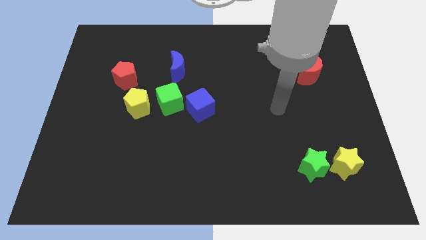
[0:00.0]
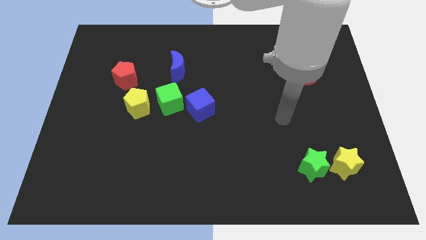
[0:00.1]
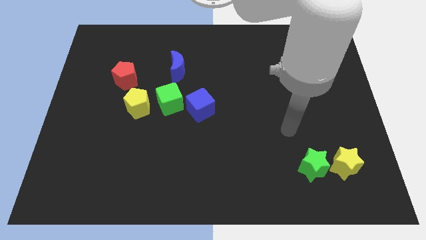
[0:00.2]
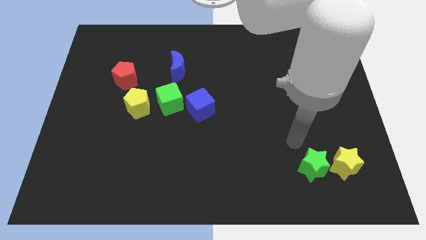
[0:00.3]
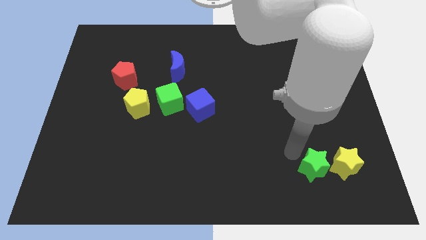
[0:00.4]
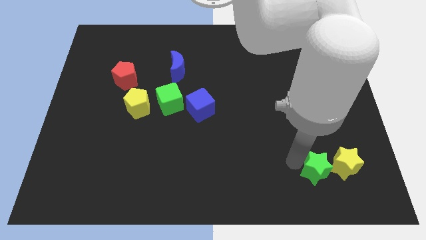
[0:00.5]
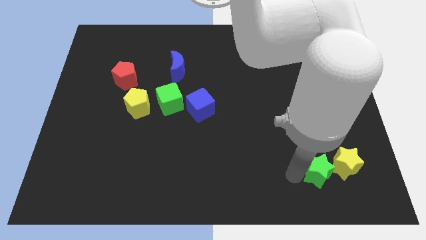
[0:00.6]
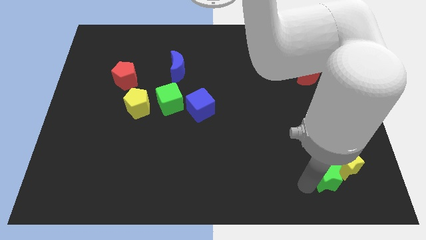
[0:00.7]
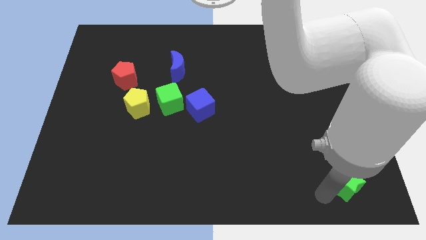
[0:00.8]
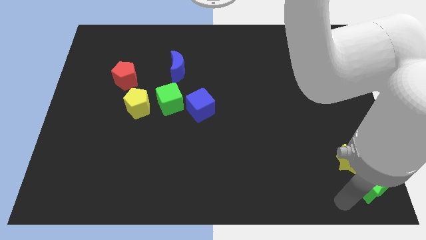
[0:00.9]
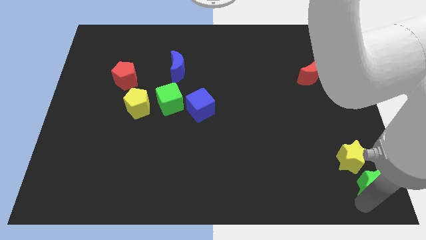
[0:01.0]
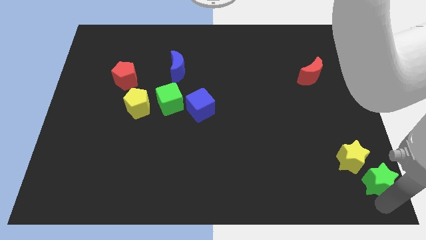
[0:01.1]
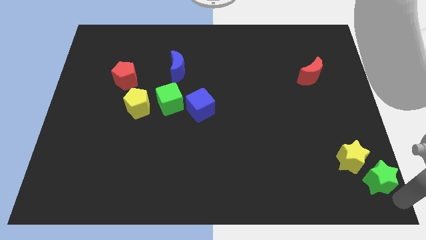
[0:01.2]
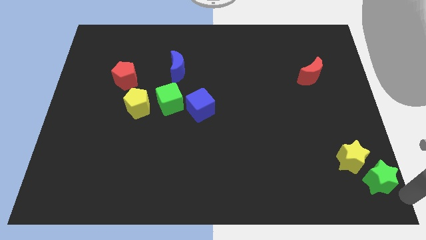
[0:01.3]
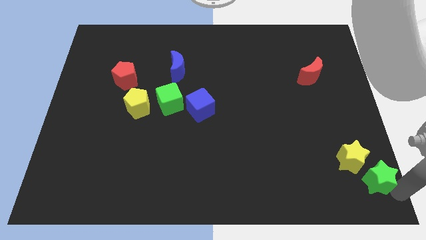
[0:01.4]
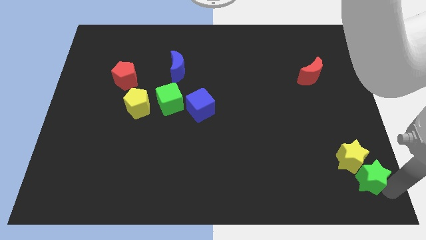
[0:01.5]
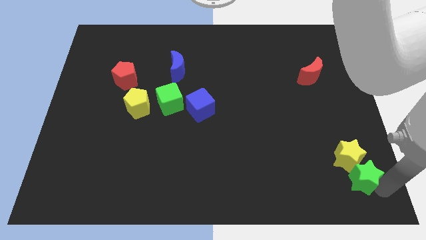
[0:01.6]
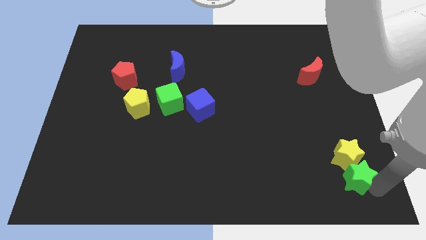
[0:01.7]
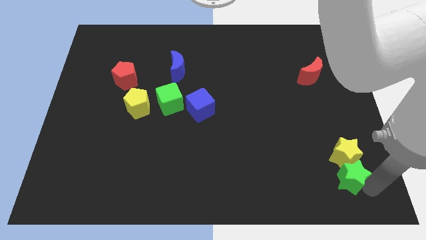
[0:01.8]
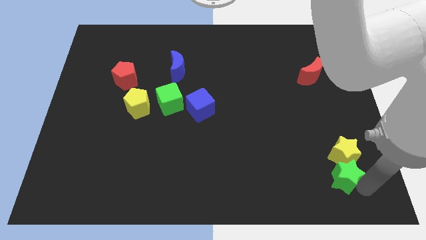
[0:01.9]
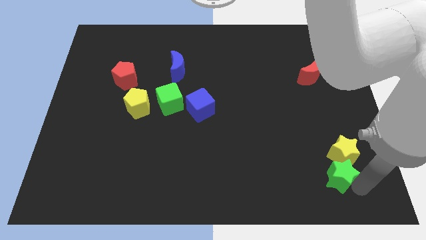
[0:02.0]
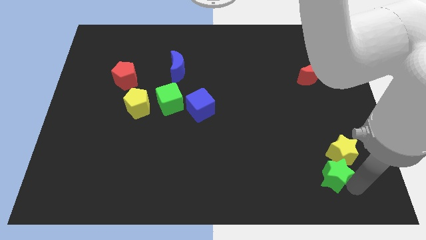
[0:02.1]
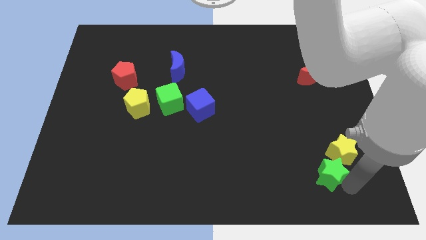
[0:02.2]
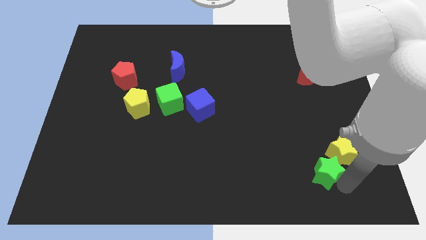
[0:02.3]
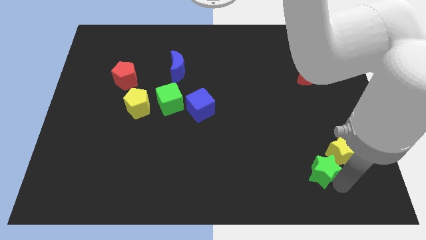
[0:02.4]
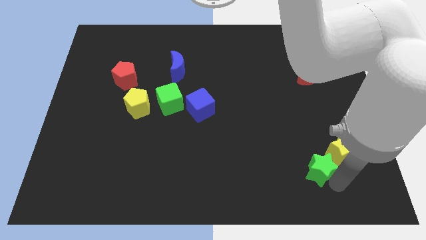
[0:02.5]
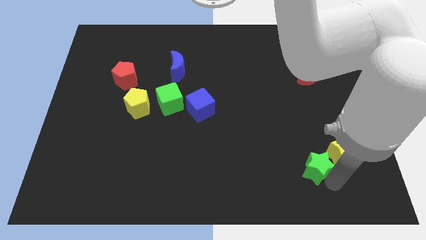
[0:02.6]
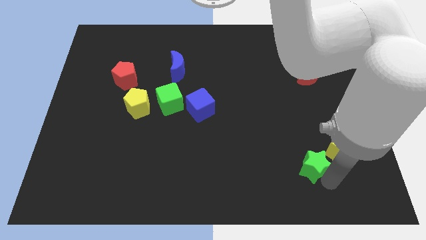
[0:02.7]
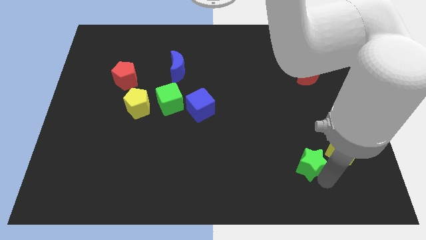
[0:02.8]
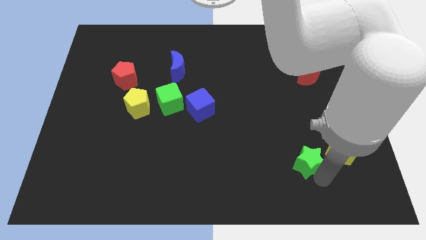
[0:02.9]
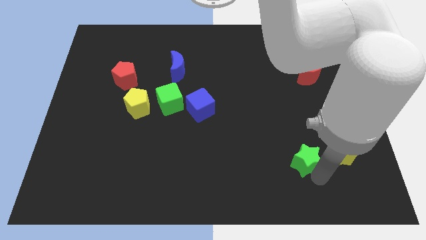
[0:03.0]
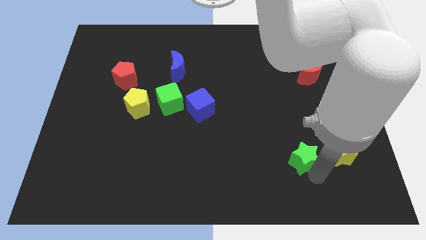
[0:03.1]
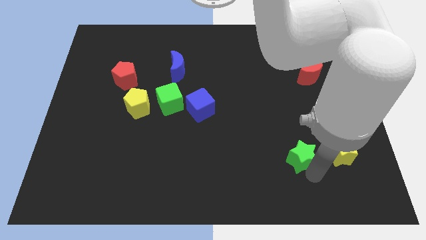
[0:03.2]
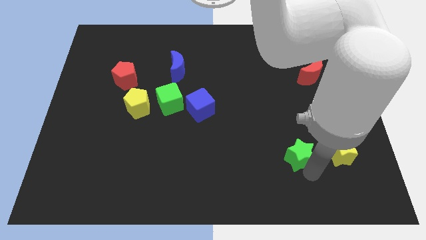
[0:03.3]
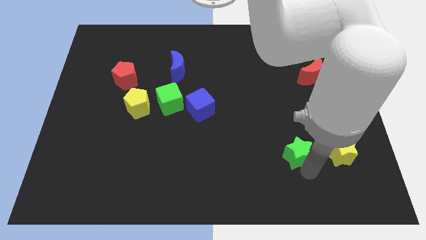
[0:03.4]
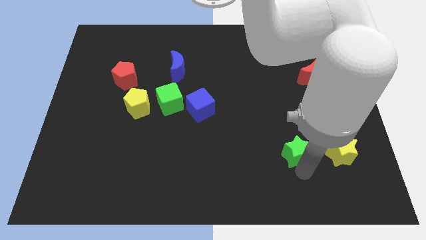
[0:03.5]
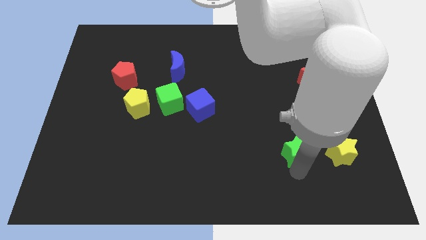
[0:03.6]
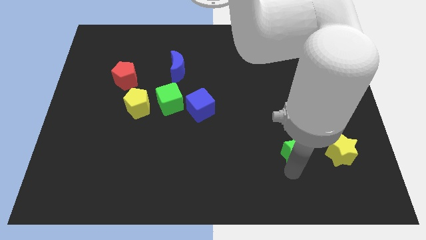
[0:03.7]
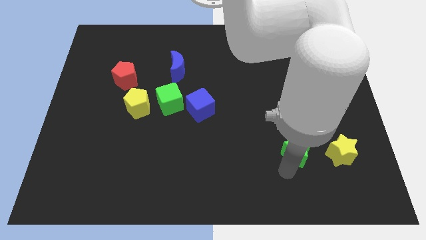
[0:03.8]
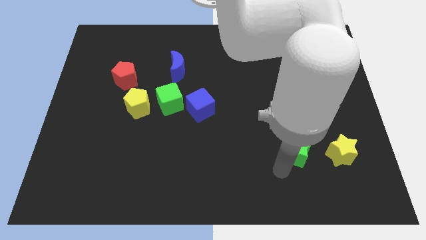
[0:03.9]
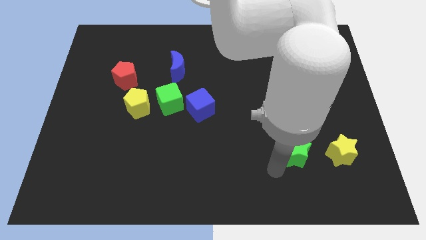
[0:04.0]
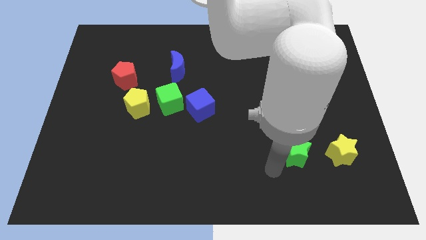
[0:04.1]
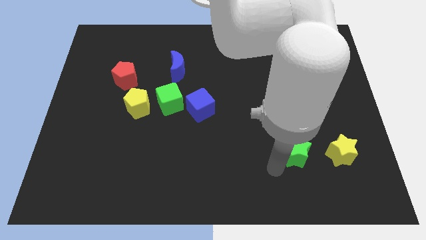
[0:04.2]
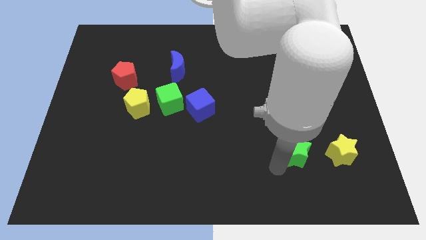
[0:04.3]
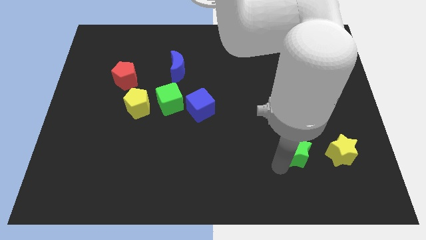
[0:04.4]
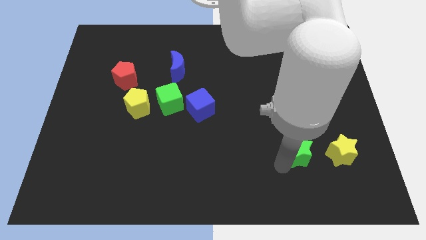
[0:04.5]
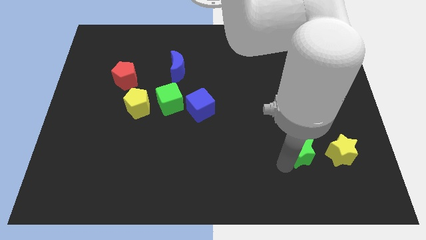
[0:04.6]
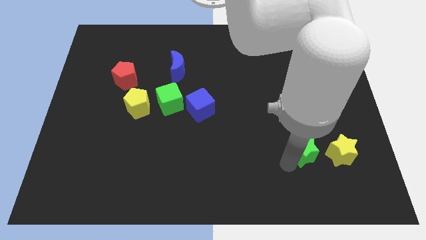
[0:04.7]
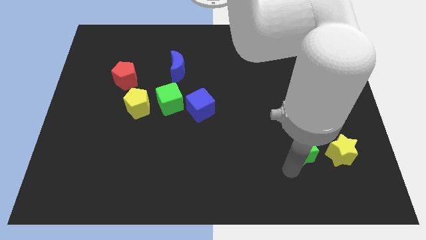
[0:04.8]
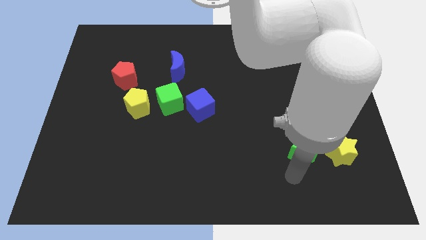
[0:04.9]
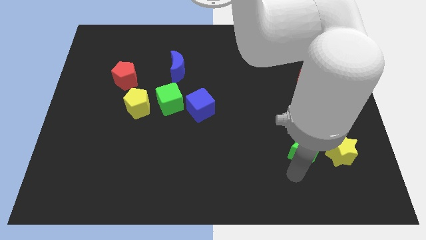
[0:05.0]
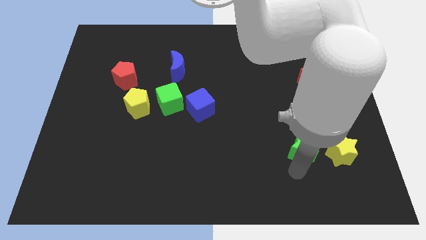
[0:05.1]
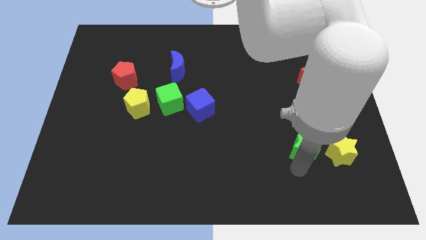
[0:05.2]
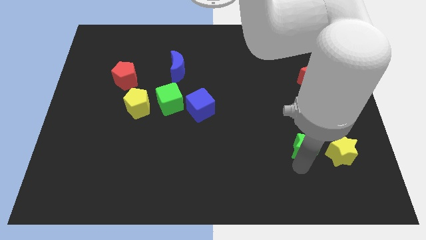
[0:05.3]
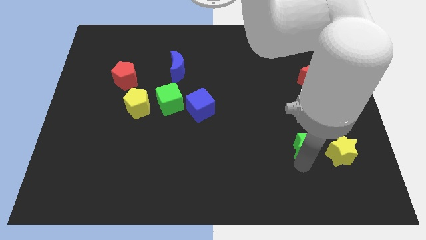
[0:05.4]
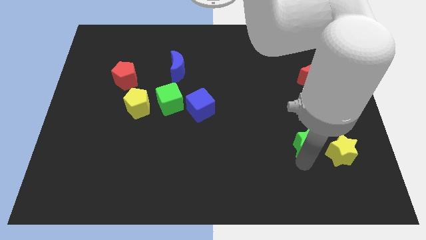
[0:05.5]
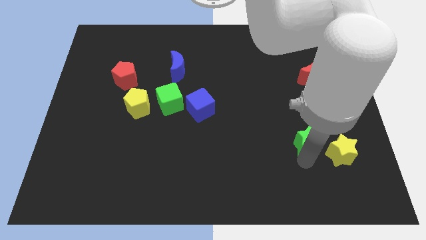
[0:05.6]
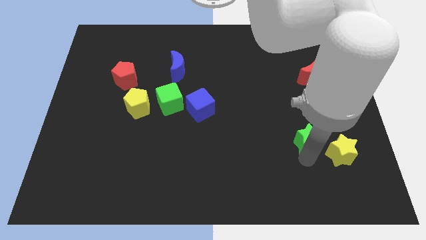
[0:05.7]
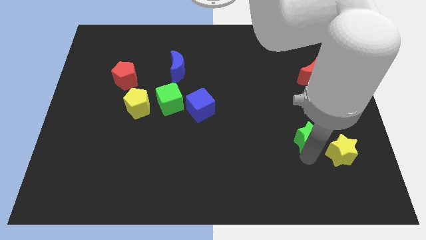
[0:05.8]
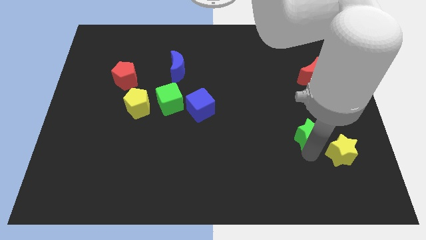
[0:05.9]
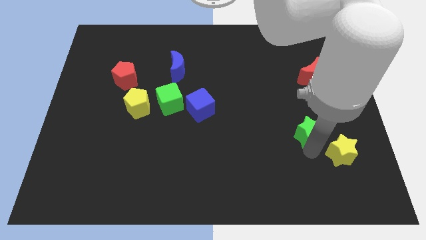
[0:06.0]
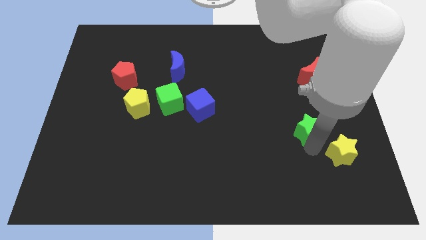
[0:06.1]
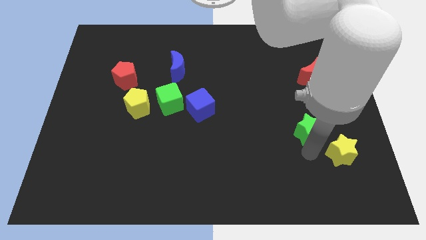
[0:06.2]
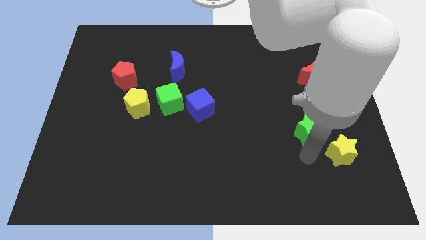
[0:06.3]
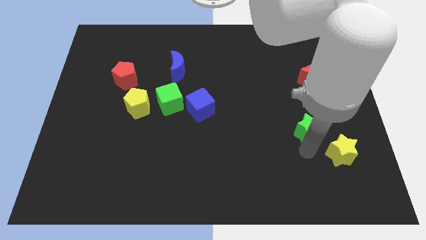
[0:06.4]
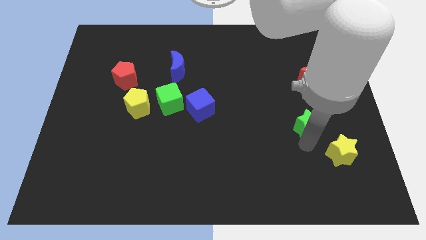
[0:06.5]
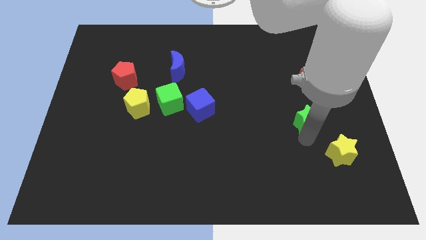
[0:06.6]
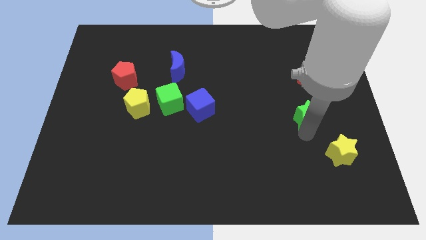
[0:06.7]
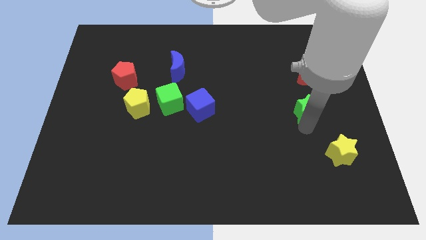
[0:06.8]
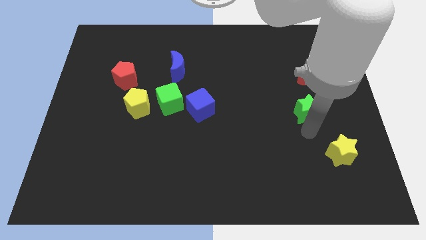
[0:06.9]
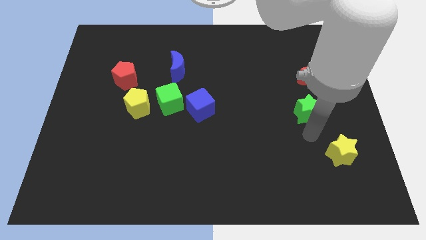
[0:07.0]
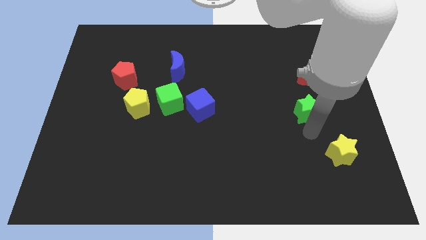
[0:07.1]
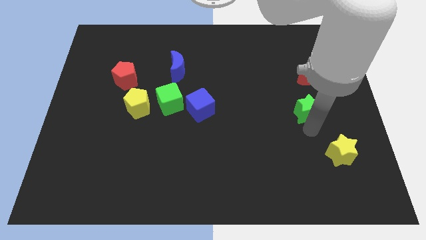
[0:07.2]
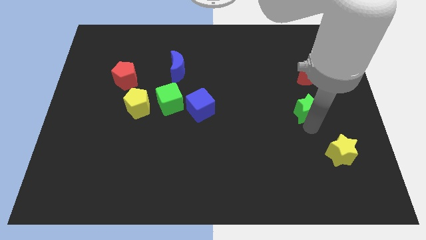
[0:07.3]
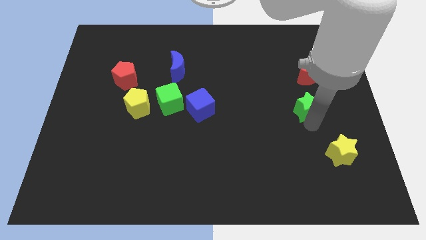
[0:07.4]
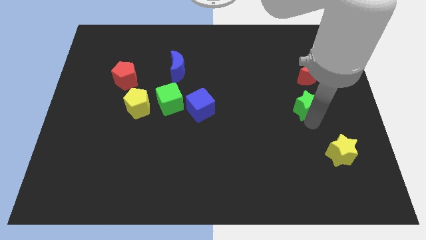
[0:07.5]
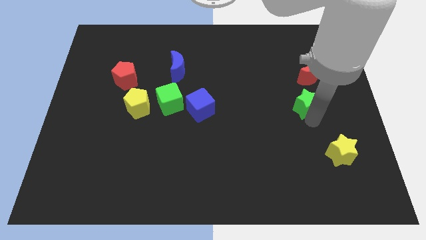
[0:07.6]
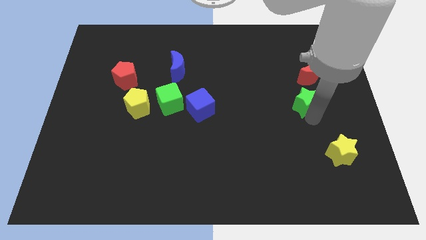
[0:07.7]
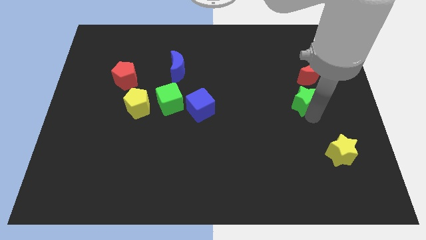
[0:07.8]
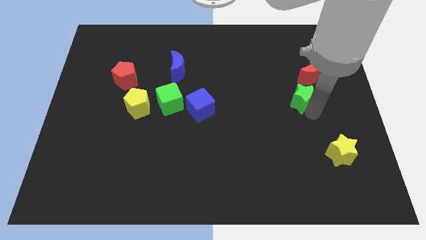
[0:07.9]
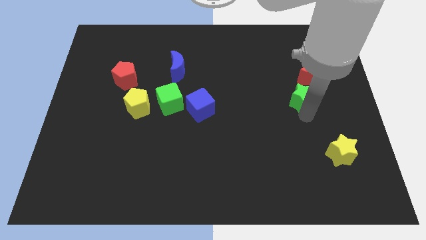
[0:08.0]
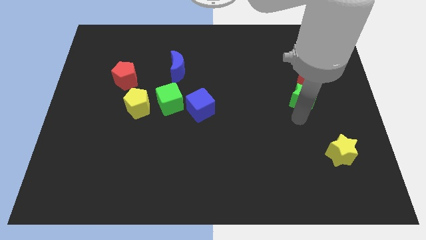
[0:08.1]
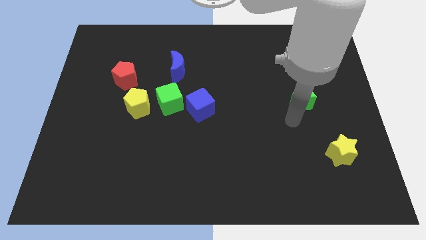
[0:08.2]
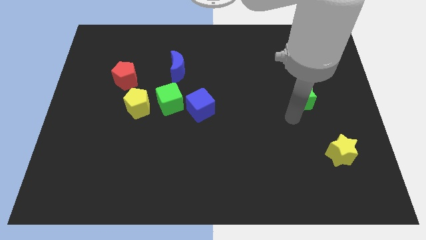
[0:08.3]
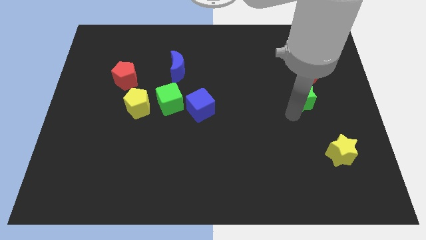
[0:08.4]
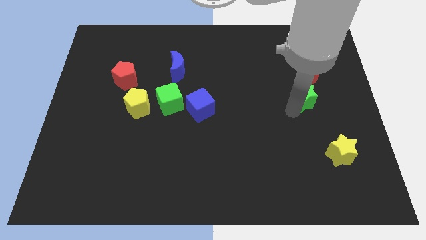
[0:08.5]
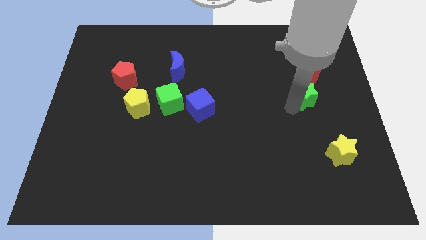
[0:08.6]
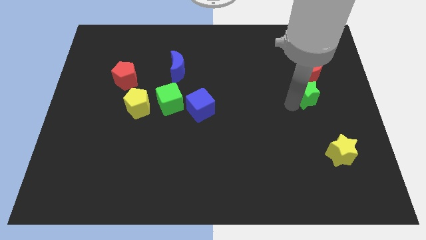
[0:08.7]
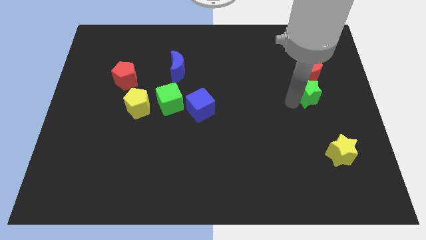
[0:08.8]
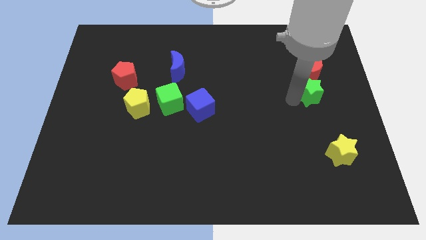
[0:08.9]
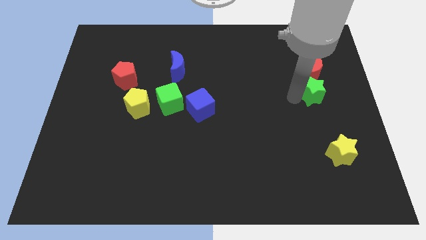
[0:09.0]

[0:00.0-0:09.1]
slide the green star towards the red moon
